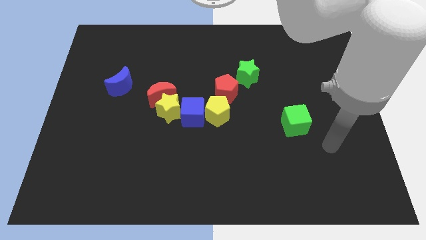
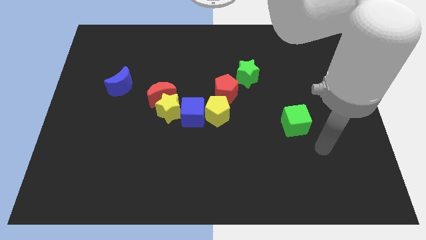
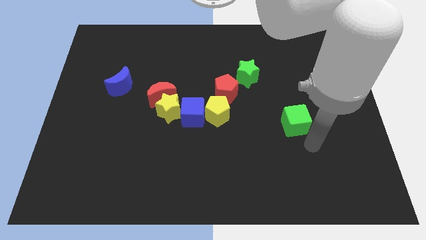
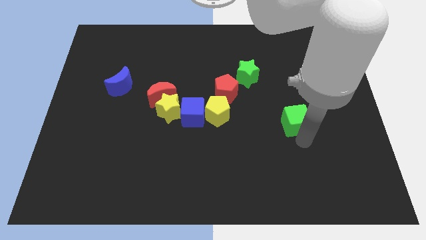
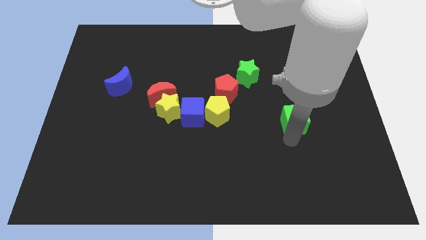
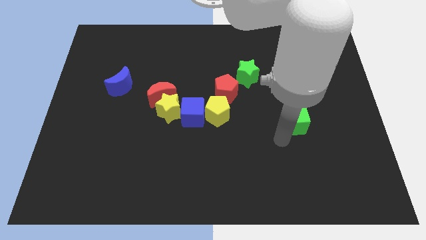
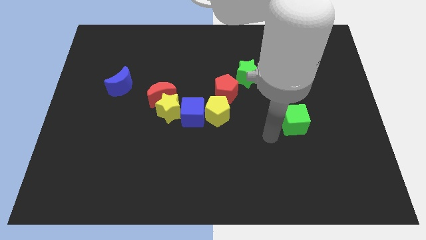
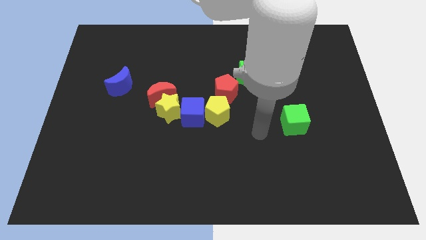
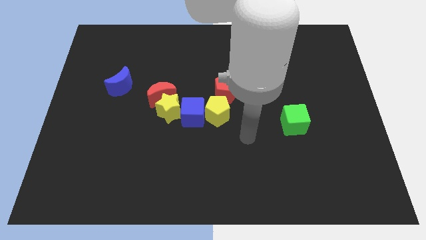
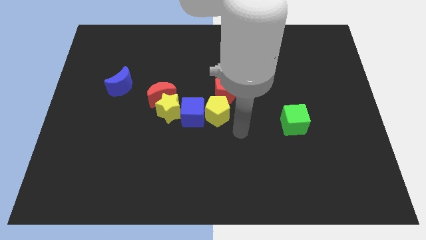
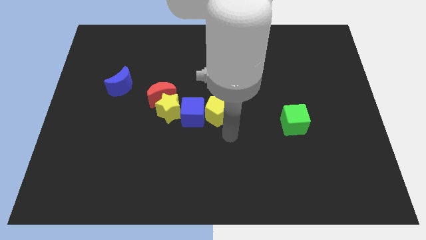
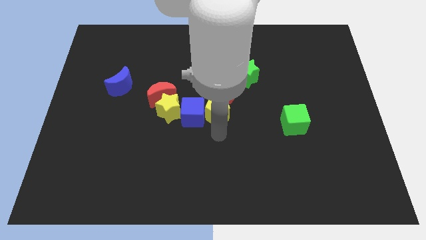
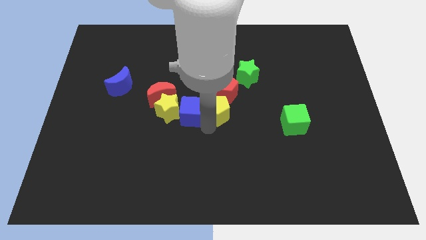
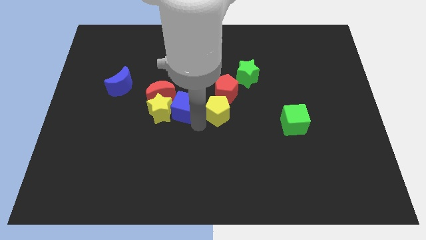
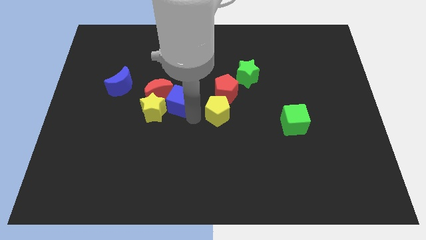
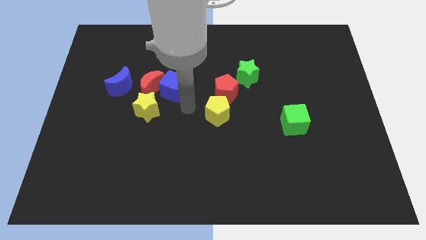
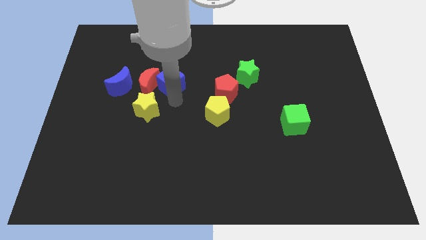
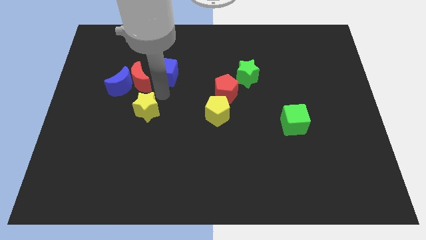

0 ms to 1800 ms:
separate the yellow star from the red moon and blue cube

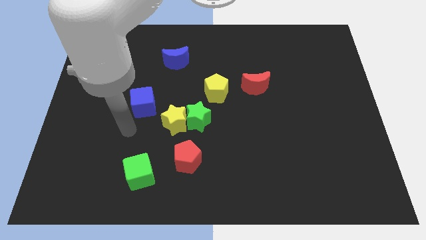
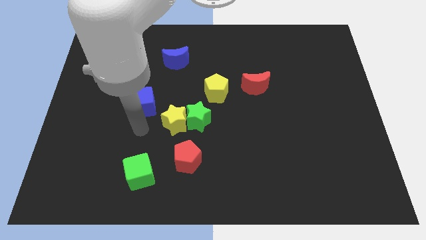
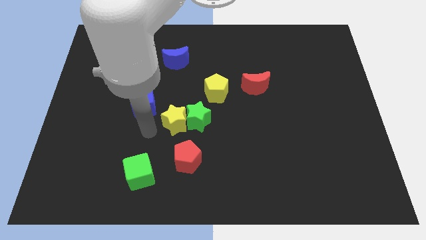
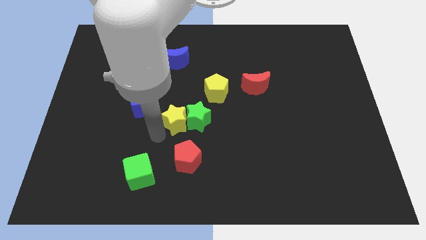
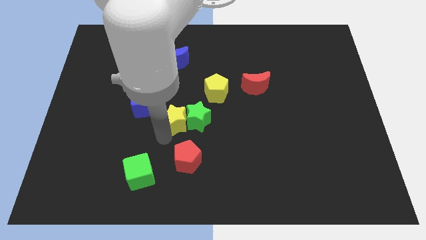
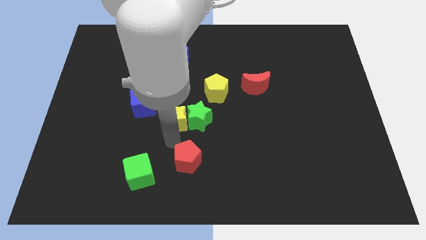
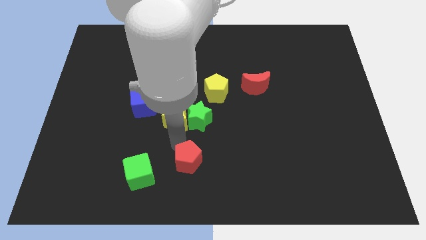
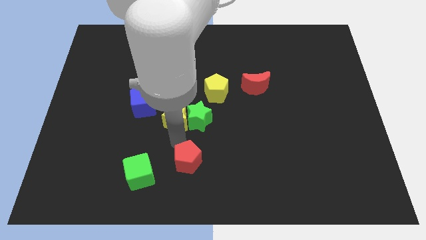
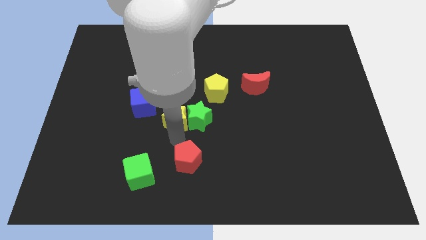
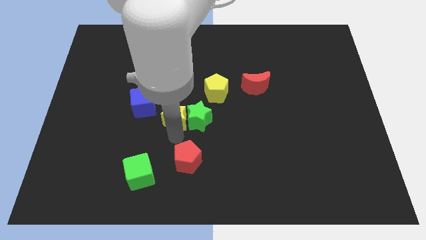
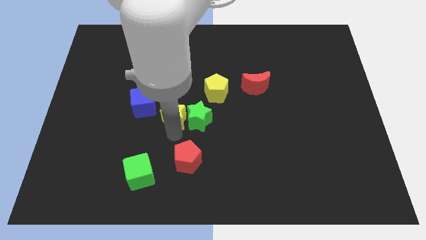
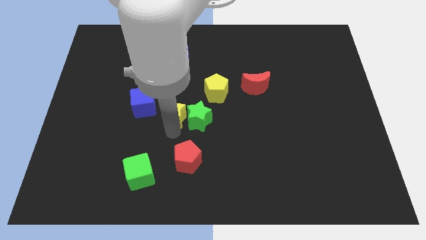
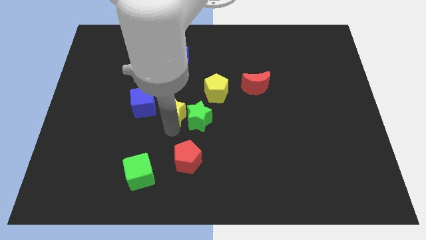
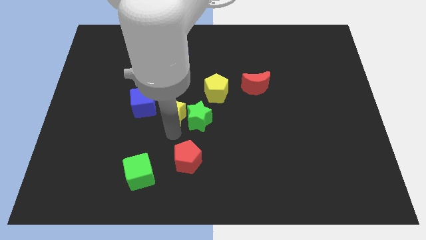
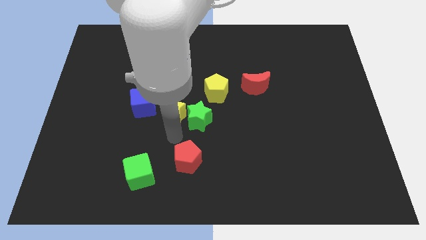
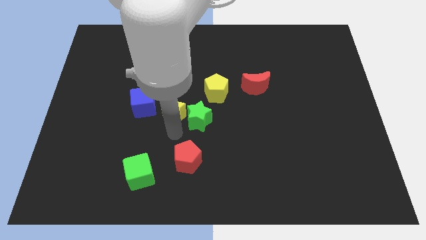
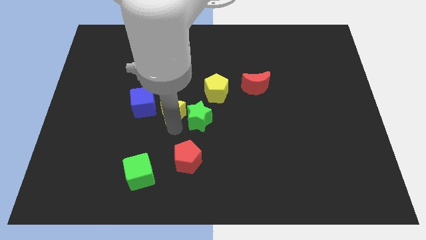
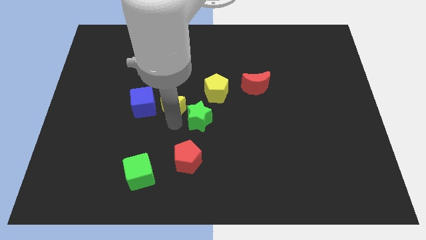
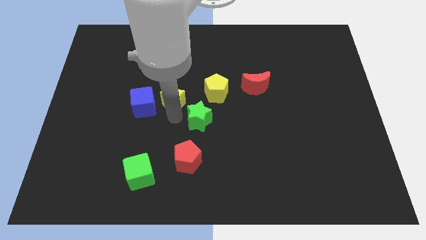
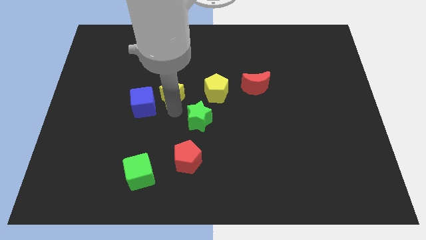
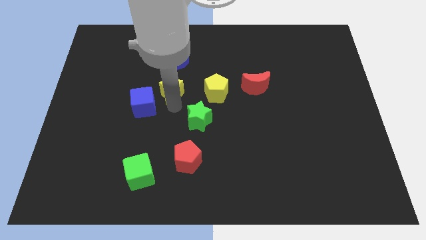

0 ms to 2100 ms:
pull the yellow star apart from the green star, blue cube, and red pentagon

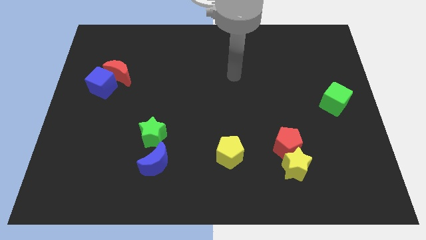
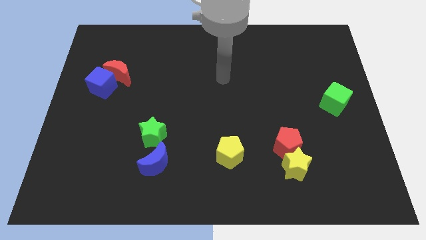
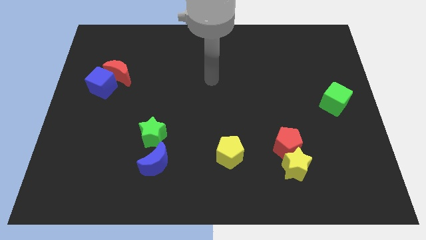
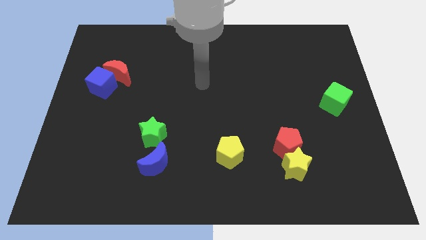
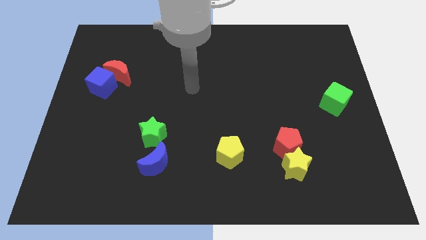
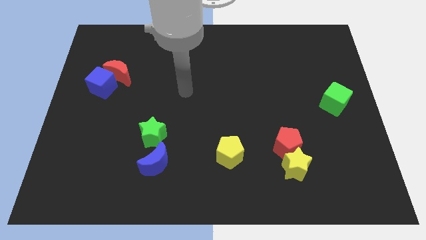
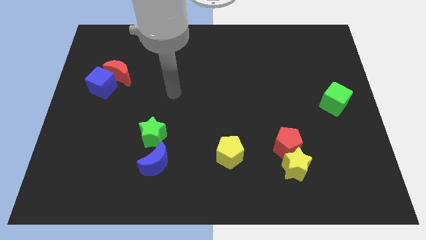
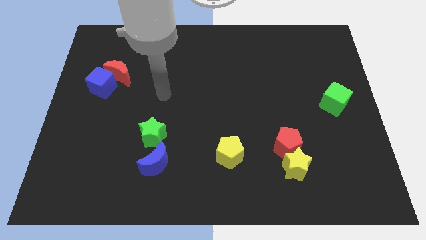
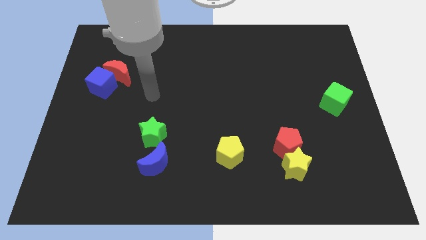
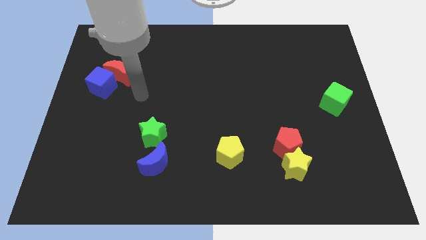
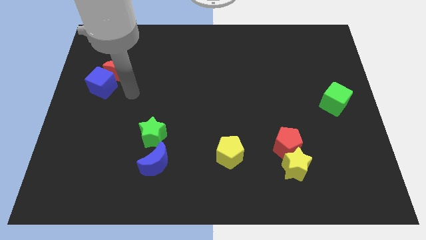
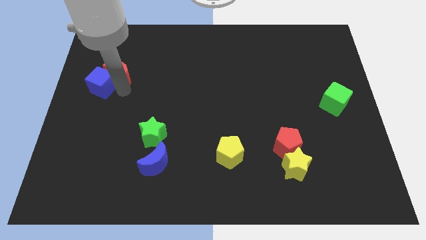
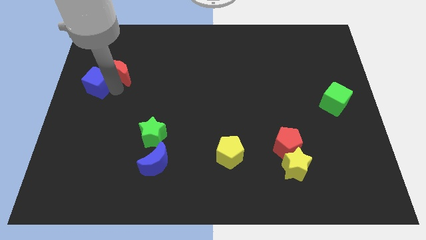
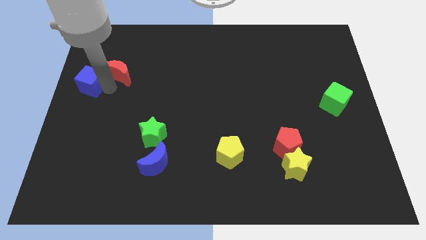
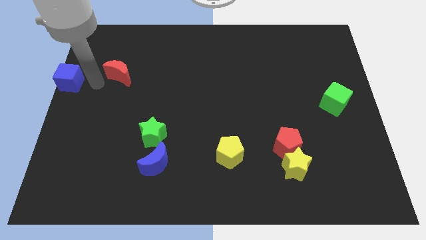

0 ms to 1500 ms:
move the red moon away from the blue cube

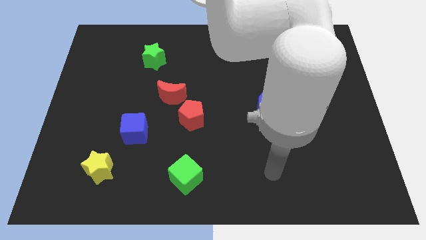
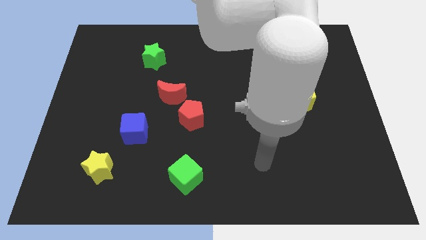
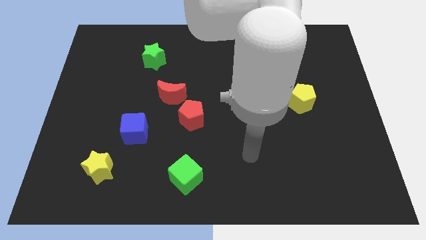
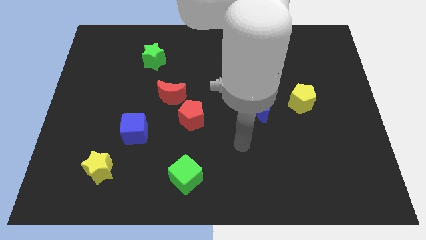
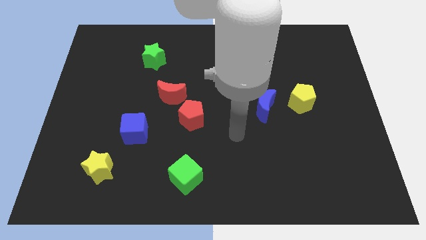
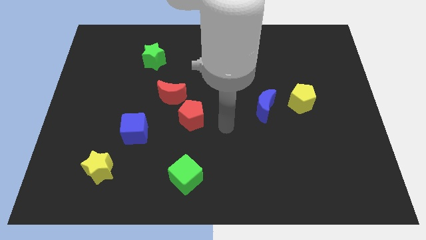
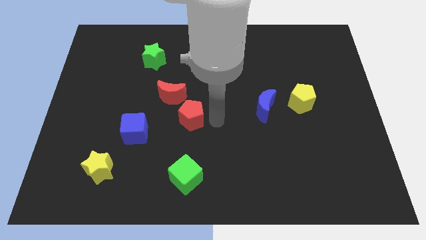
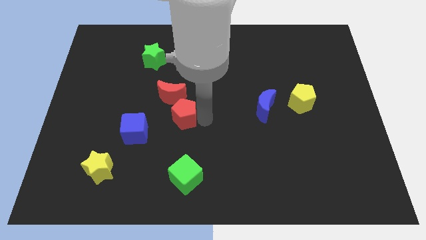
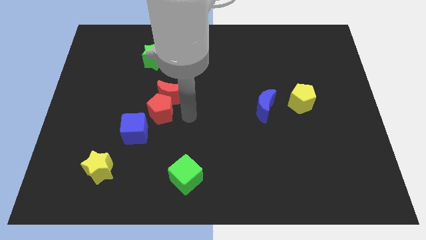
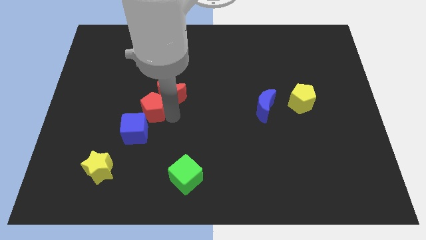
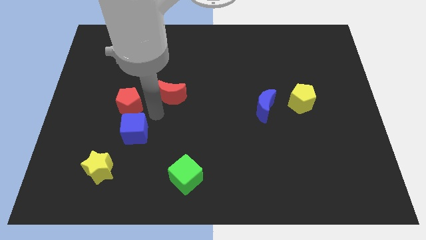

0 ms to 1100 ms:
separate the red moon from the red pentagon

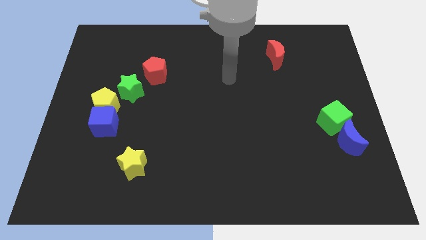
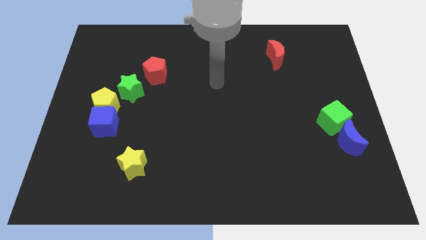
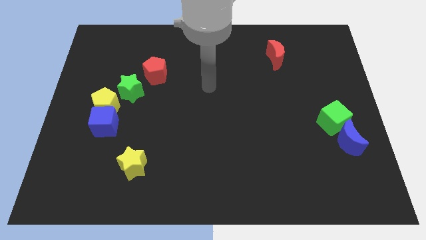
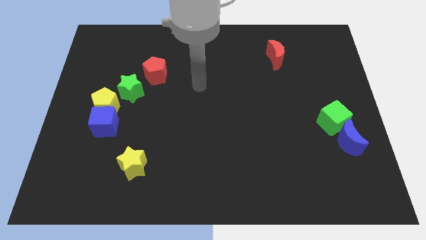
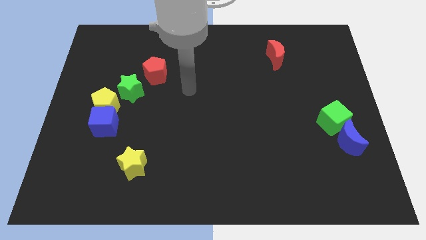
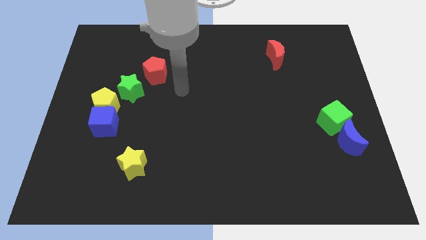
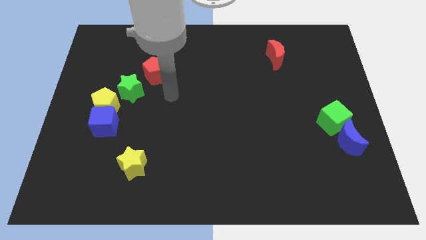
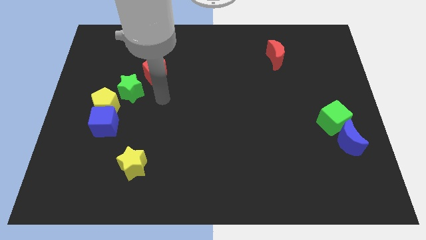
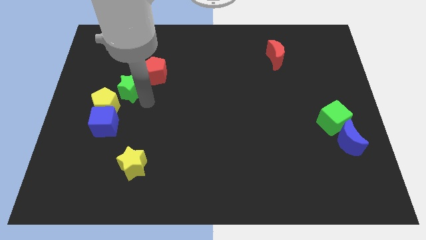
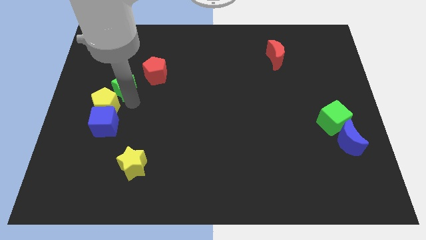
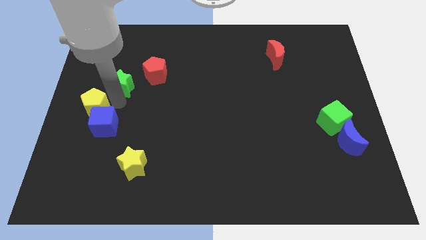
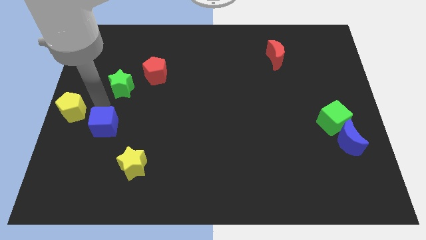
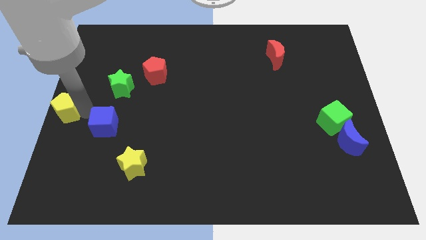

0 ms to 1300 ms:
separate the blue cube from the yellow pentagon

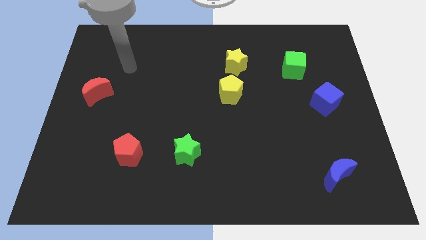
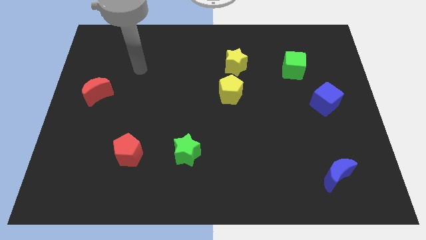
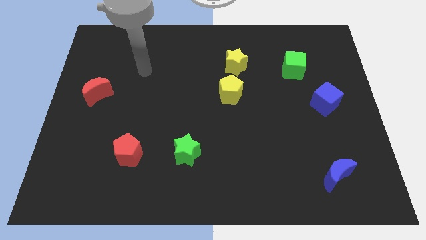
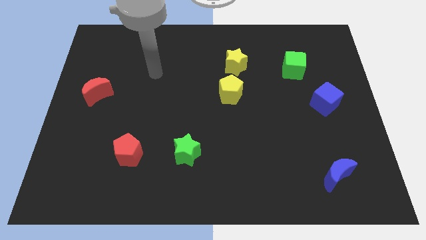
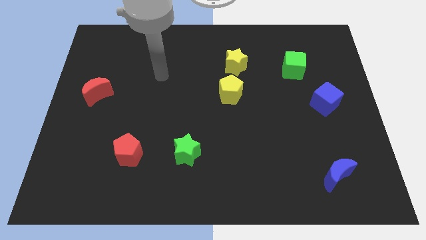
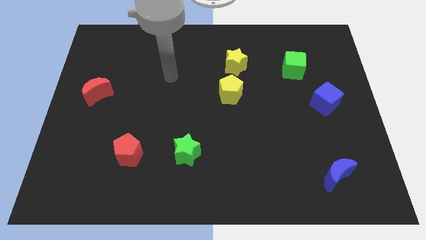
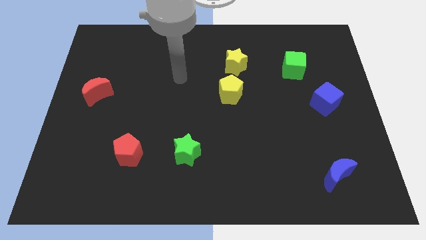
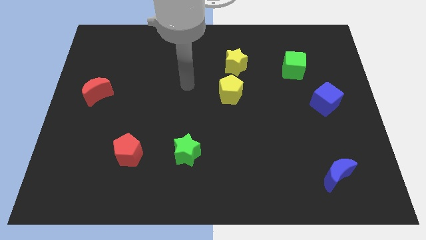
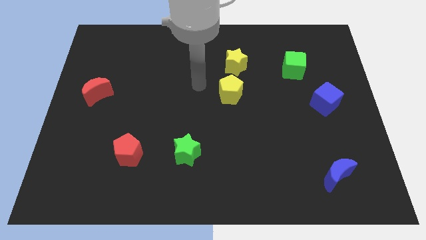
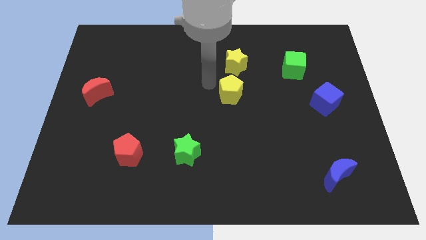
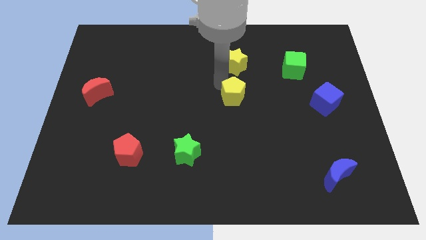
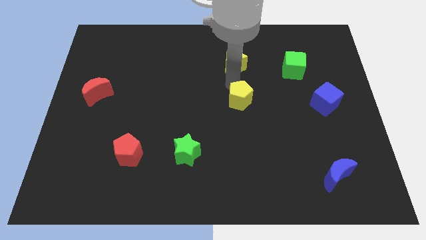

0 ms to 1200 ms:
separate the yellow star from the yellow pentagon

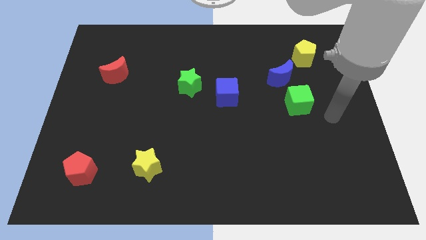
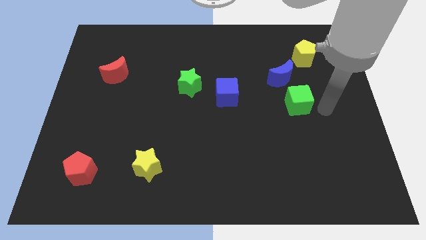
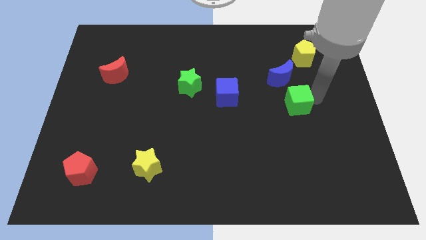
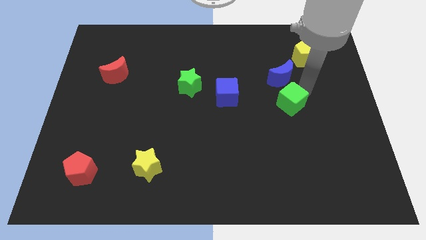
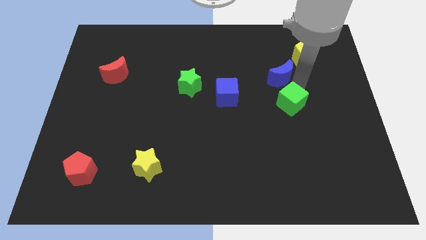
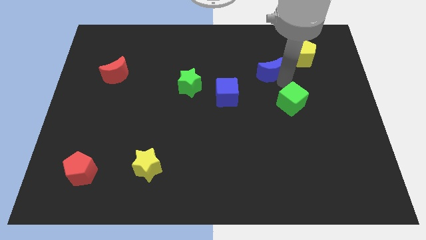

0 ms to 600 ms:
pull the green cube apart from the blue moon
